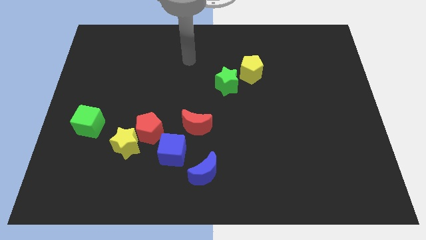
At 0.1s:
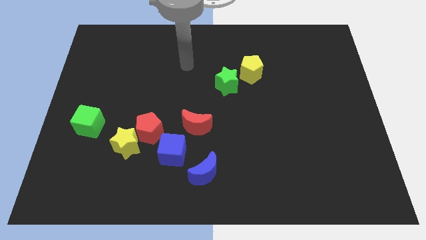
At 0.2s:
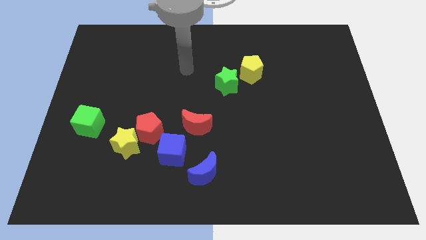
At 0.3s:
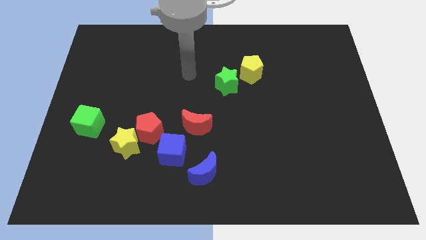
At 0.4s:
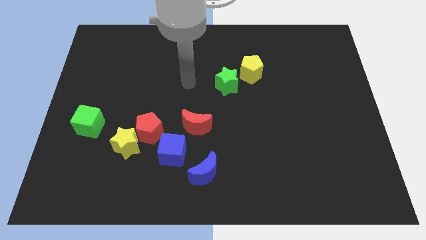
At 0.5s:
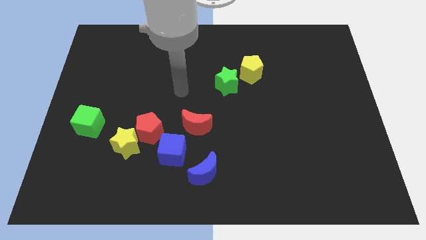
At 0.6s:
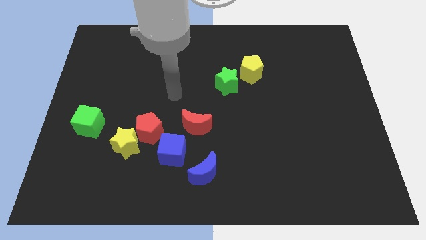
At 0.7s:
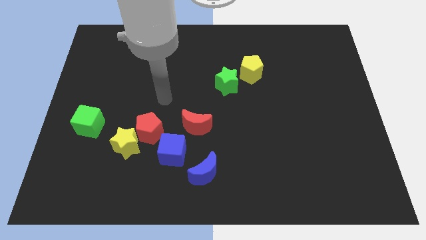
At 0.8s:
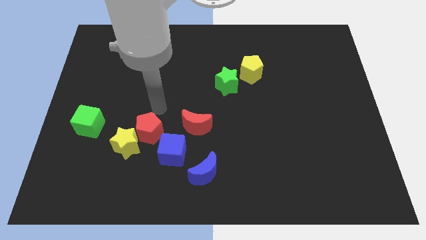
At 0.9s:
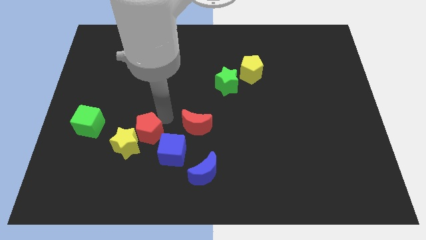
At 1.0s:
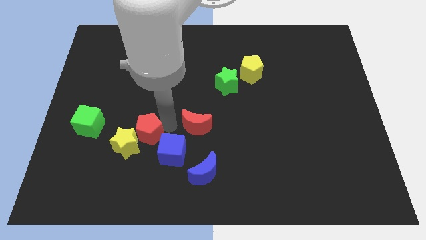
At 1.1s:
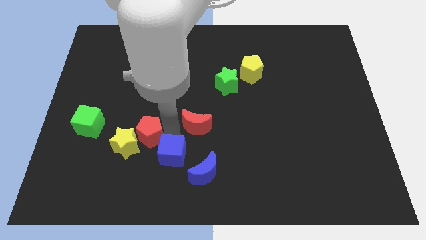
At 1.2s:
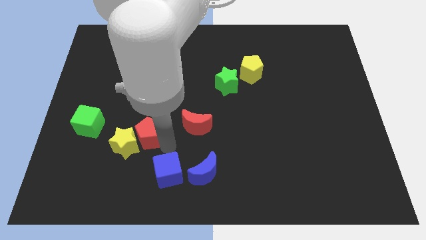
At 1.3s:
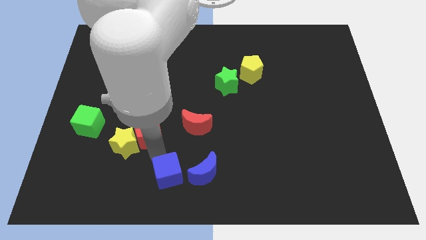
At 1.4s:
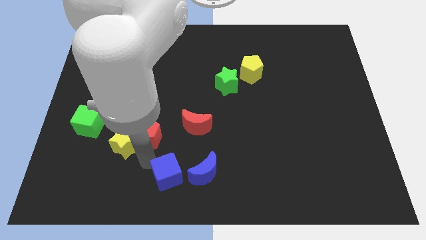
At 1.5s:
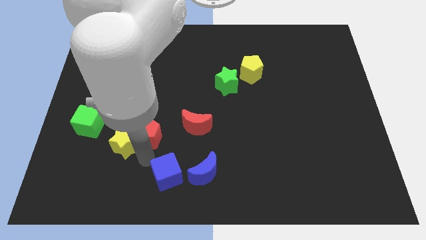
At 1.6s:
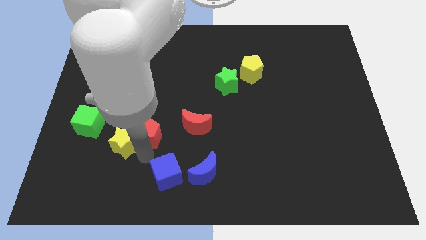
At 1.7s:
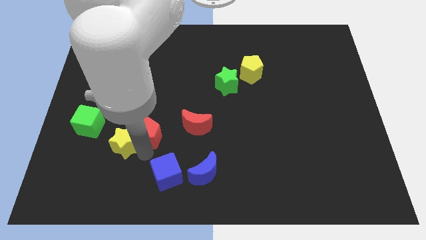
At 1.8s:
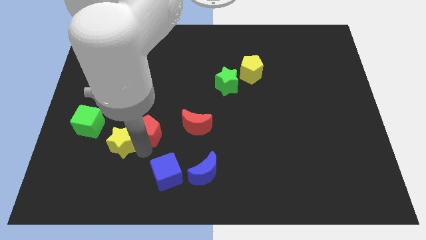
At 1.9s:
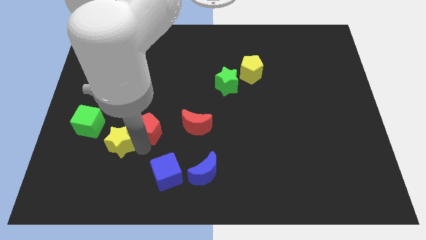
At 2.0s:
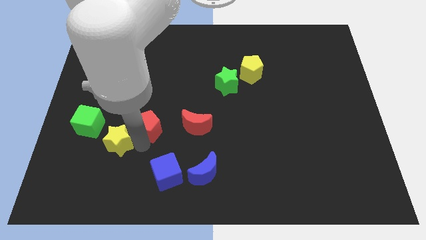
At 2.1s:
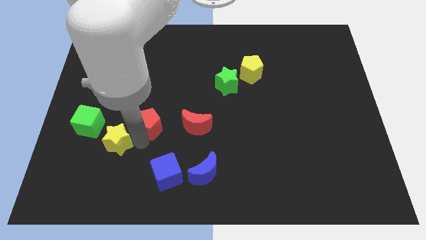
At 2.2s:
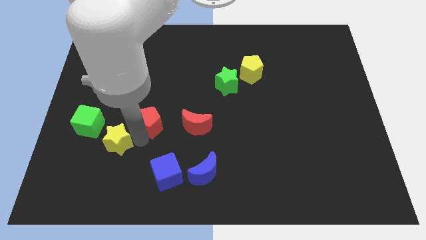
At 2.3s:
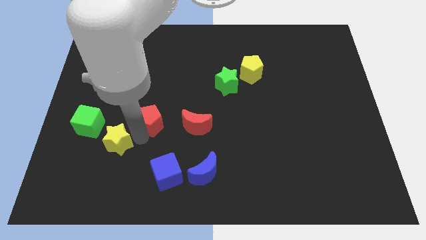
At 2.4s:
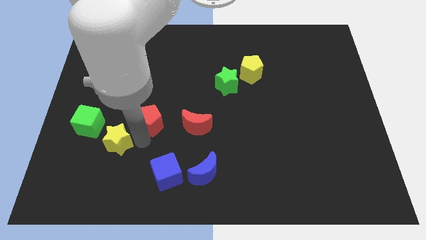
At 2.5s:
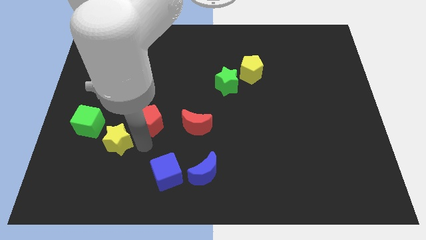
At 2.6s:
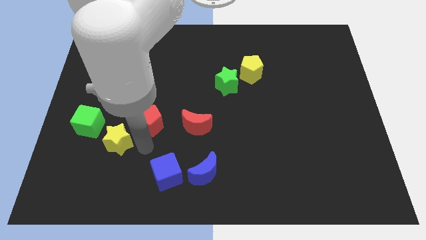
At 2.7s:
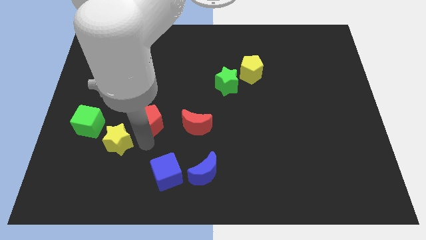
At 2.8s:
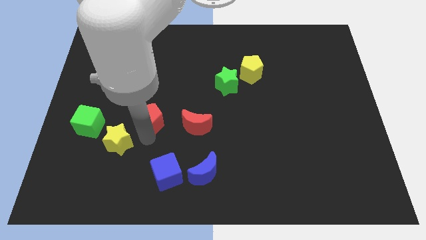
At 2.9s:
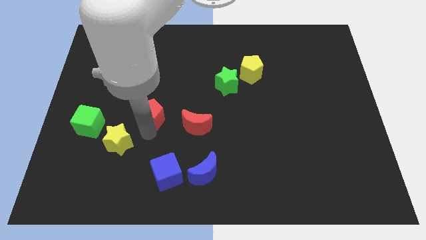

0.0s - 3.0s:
separate the red pentagon from the yellow star and blue cube

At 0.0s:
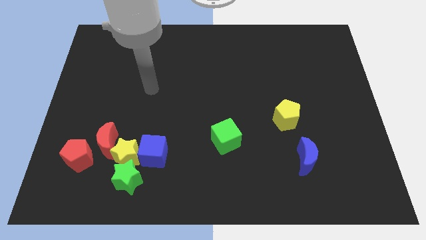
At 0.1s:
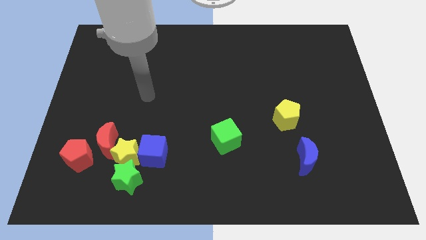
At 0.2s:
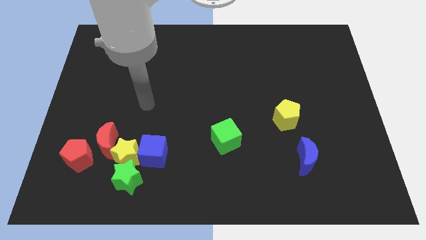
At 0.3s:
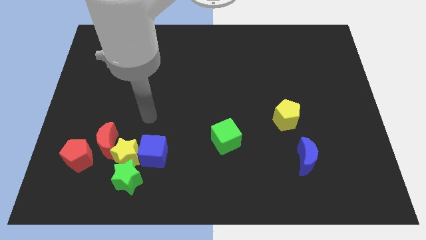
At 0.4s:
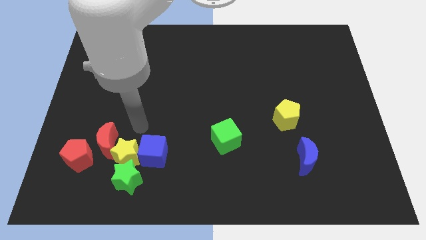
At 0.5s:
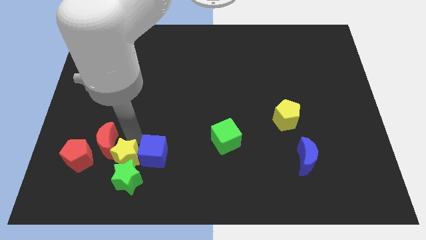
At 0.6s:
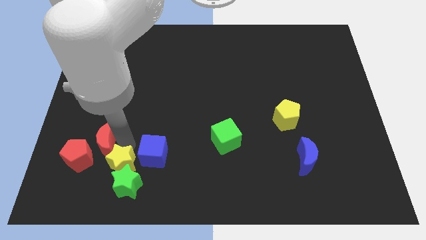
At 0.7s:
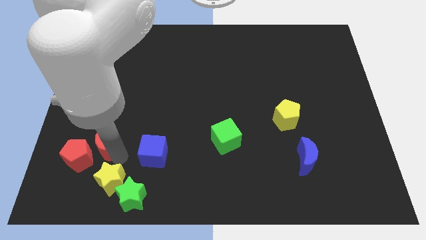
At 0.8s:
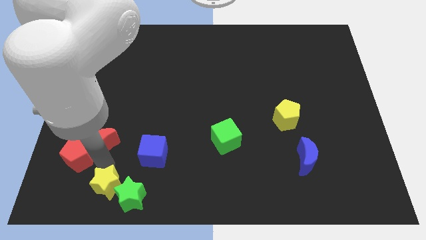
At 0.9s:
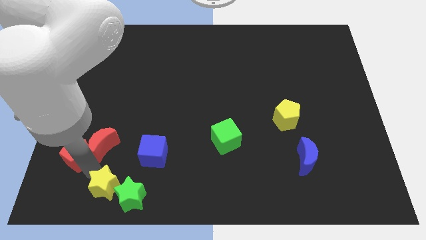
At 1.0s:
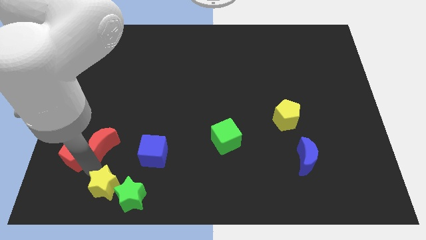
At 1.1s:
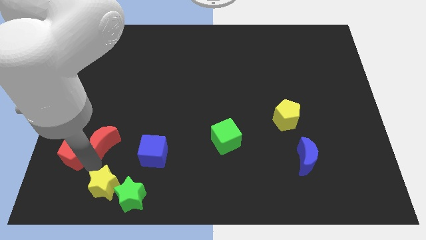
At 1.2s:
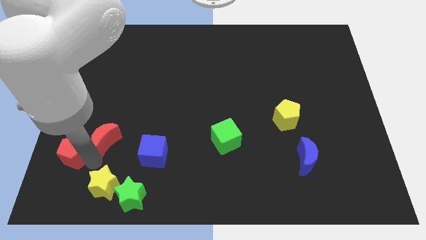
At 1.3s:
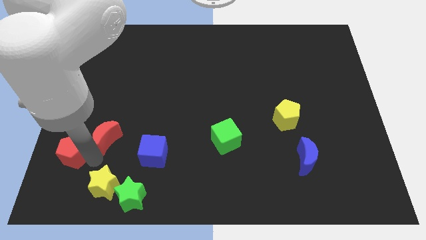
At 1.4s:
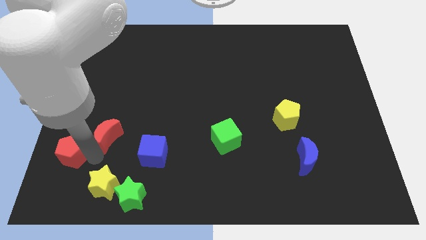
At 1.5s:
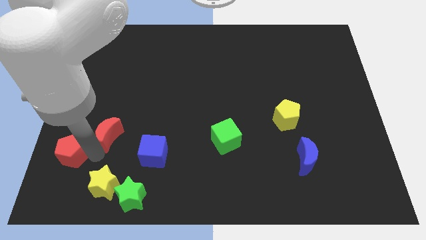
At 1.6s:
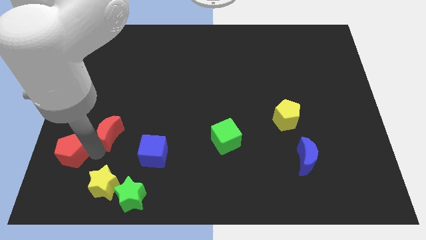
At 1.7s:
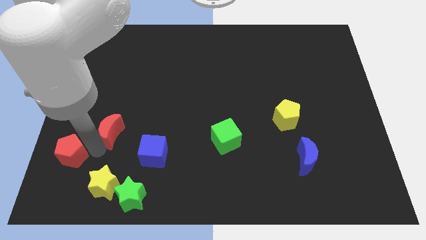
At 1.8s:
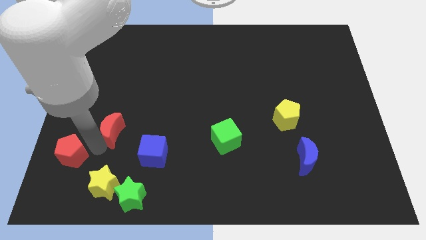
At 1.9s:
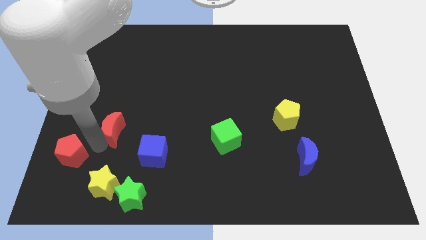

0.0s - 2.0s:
pull the red moon apart from the yellow star and red pentagon

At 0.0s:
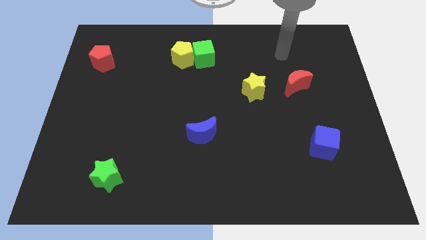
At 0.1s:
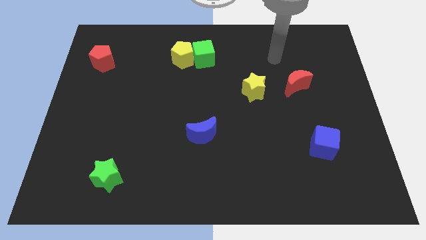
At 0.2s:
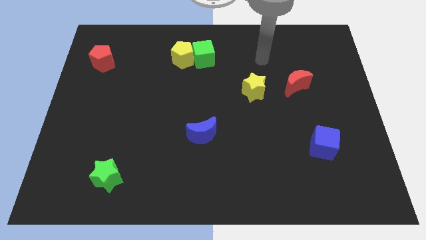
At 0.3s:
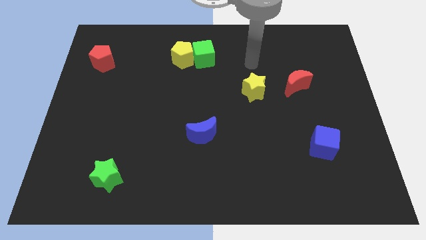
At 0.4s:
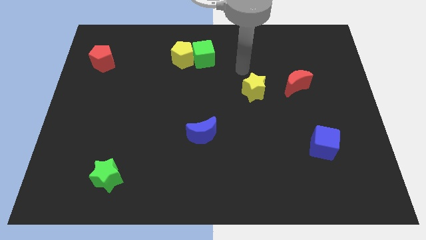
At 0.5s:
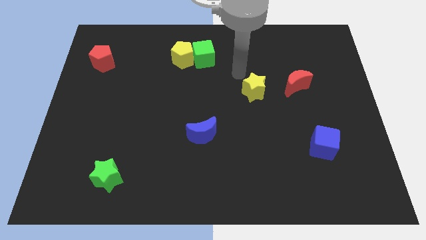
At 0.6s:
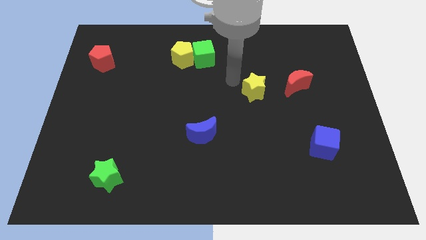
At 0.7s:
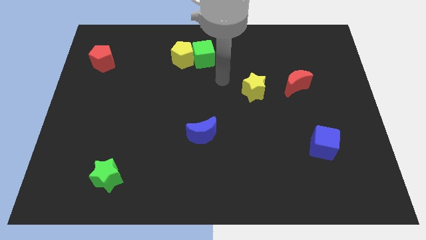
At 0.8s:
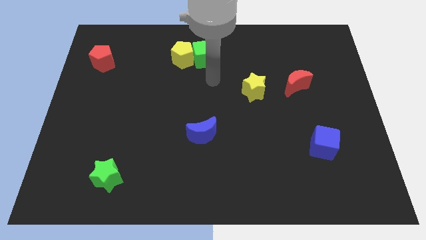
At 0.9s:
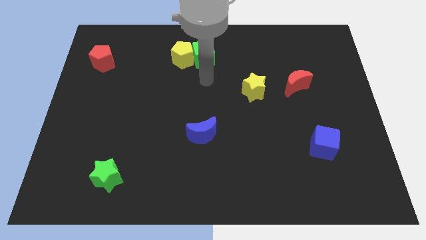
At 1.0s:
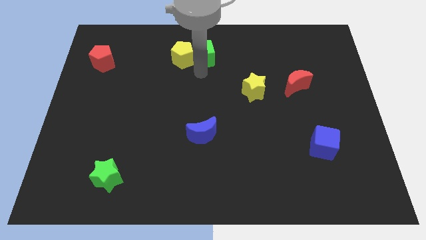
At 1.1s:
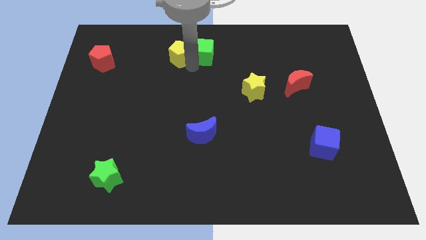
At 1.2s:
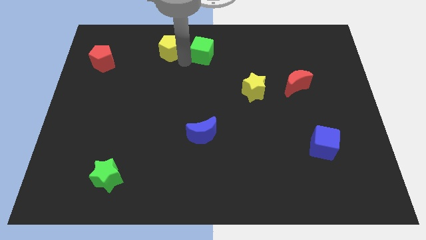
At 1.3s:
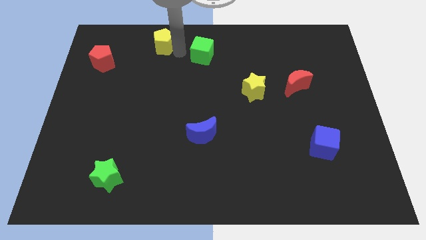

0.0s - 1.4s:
move the green cube away from the yellow pentagon

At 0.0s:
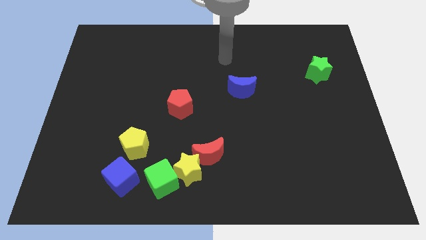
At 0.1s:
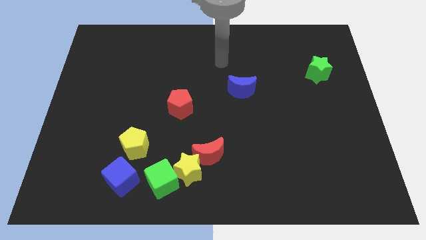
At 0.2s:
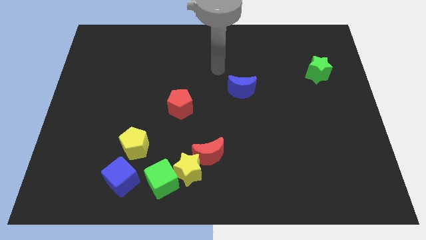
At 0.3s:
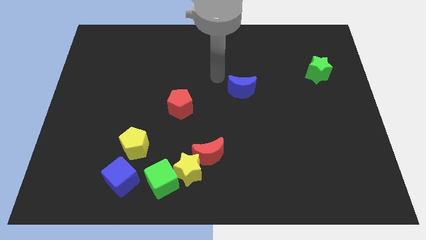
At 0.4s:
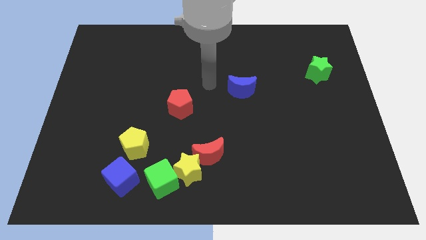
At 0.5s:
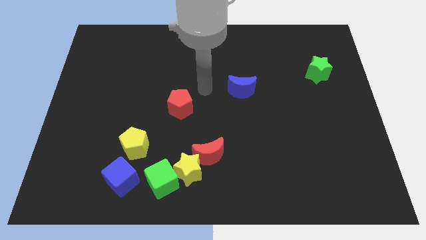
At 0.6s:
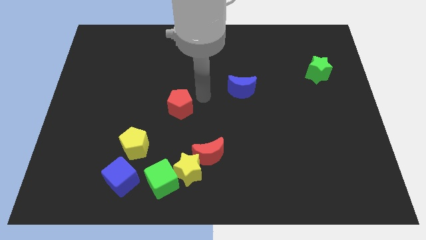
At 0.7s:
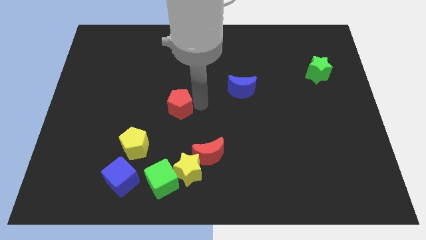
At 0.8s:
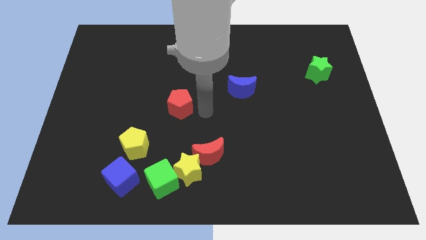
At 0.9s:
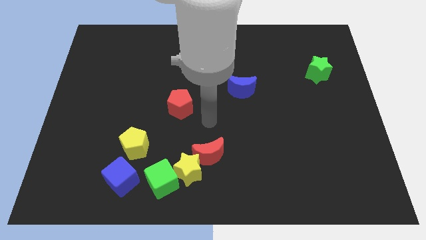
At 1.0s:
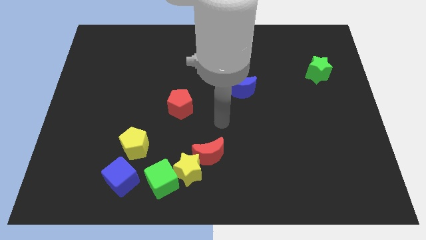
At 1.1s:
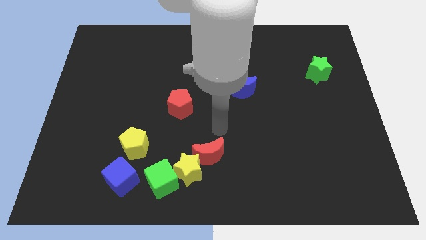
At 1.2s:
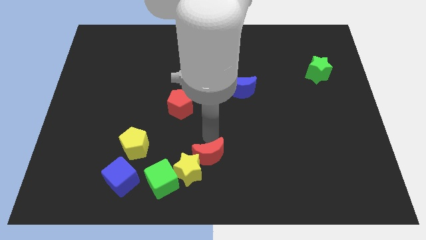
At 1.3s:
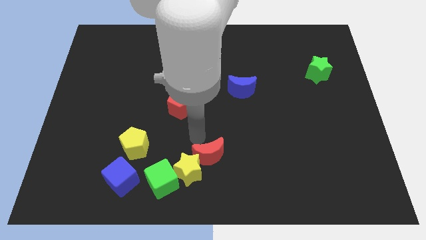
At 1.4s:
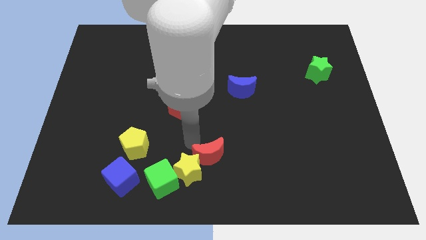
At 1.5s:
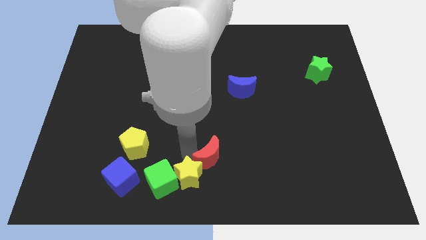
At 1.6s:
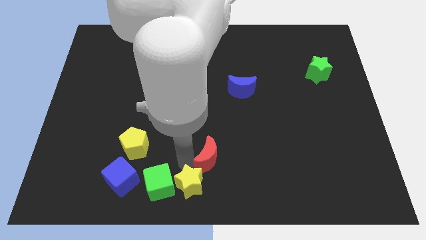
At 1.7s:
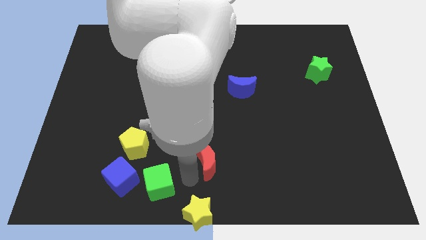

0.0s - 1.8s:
move the red moon away from the yellow star

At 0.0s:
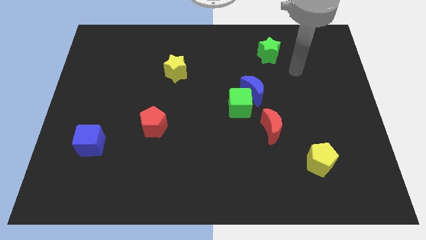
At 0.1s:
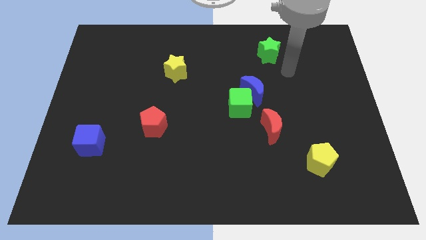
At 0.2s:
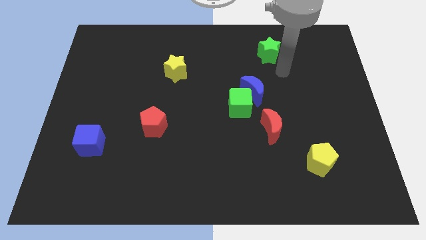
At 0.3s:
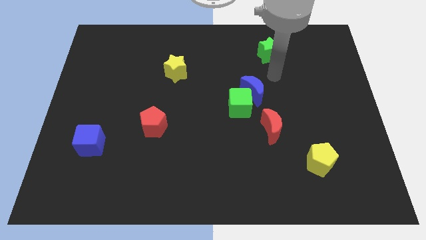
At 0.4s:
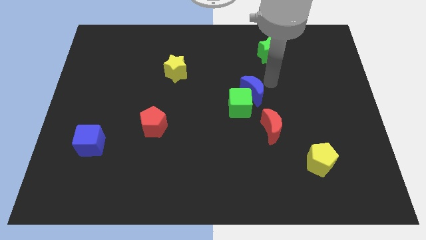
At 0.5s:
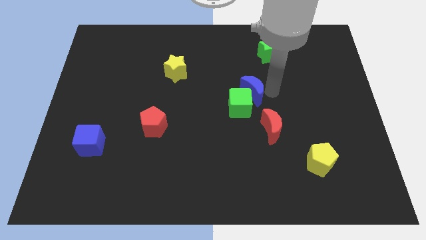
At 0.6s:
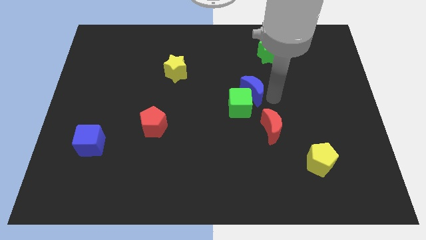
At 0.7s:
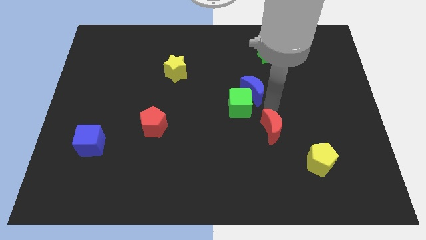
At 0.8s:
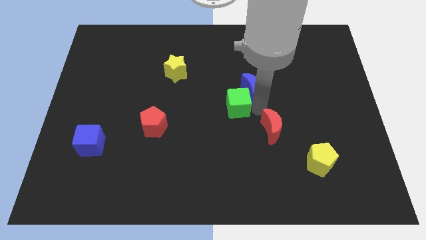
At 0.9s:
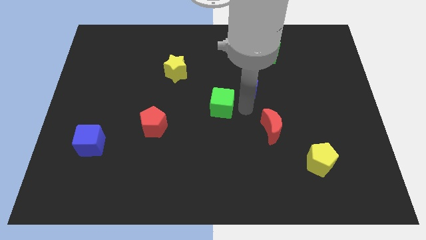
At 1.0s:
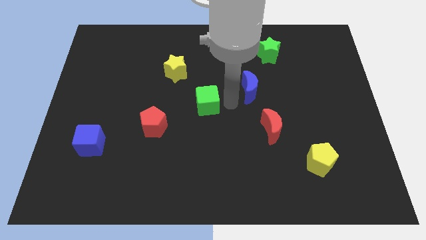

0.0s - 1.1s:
move the blue moon away from the green cube

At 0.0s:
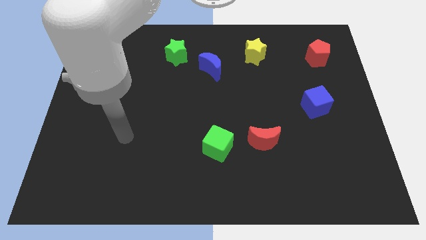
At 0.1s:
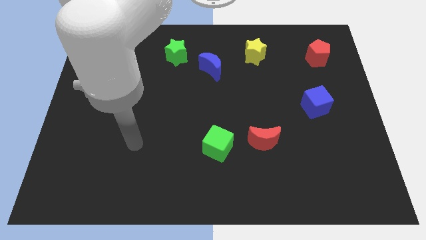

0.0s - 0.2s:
pull the red moon apart from the green cube

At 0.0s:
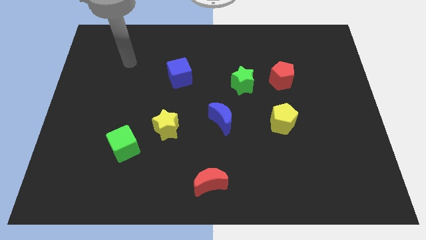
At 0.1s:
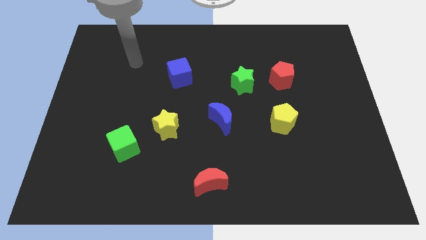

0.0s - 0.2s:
move the red pentagon away from the green star
